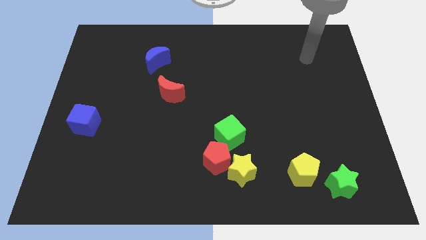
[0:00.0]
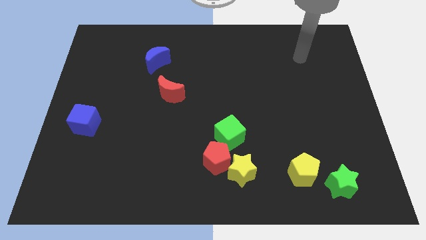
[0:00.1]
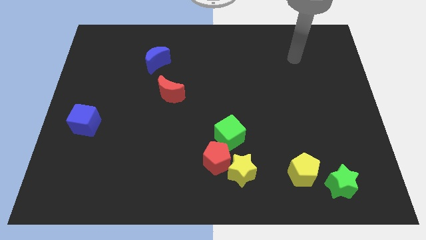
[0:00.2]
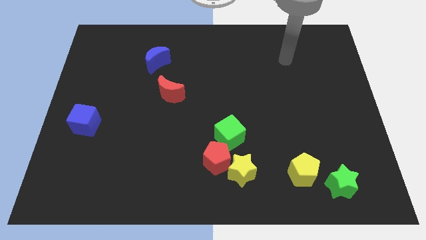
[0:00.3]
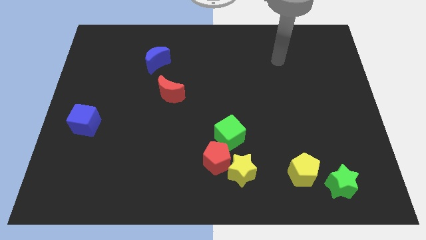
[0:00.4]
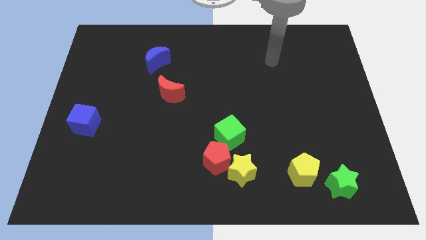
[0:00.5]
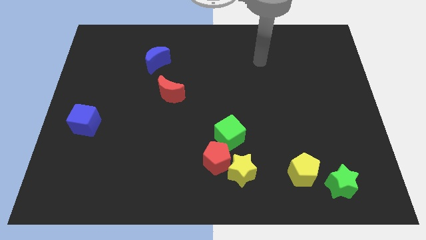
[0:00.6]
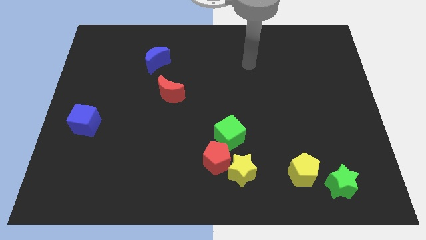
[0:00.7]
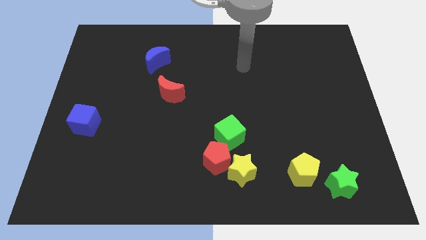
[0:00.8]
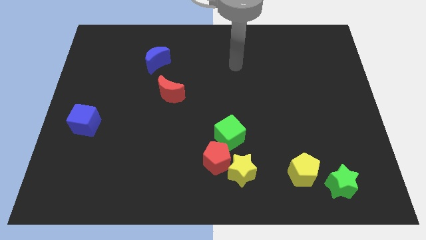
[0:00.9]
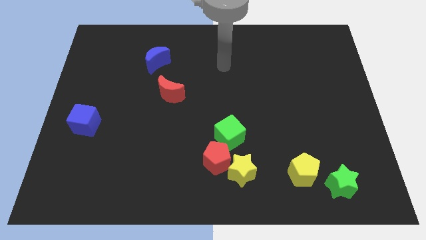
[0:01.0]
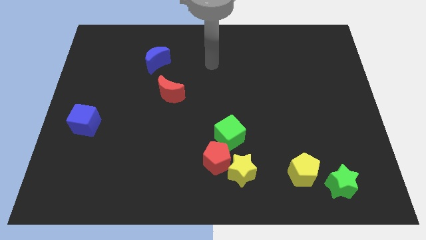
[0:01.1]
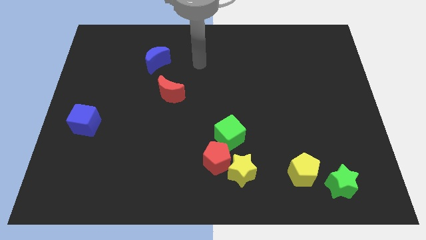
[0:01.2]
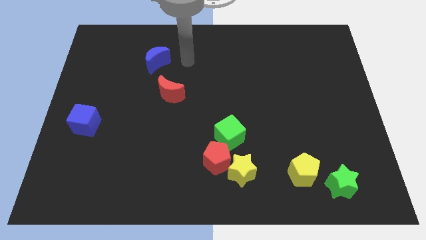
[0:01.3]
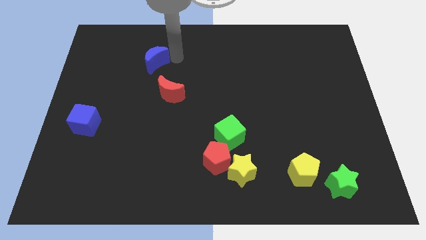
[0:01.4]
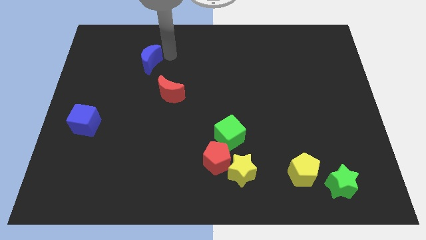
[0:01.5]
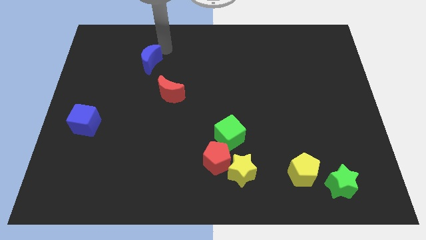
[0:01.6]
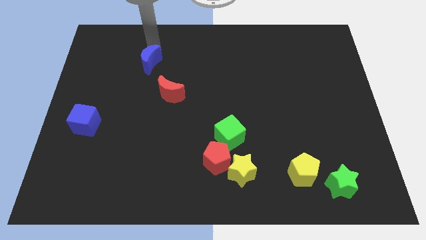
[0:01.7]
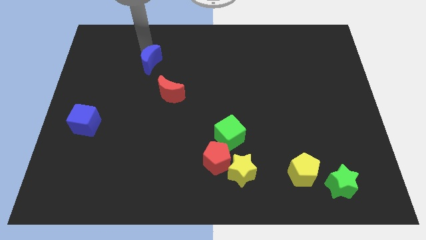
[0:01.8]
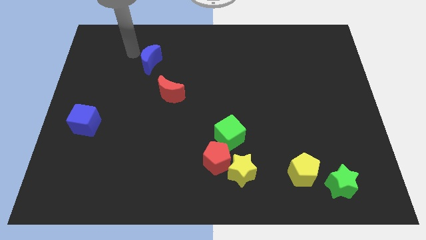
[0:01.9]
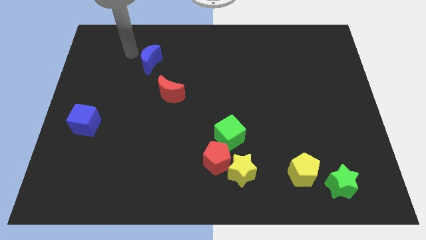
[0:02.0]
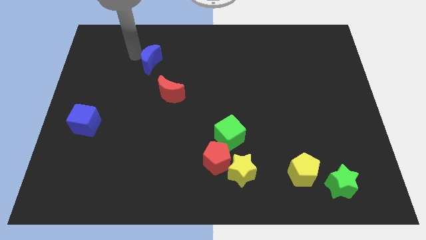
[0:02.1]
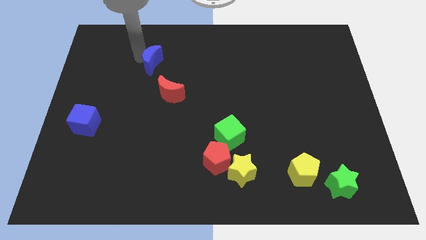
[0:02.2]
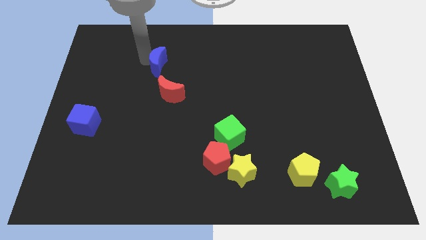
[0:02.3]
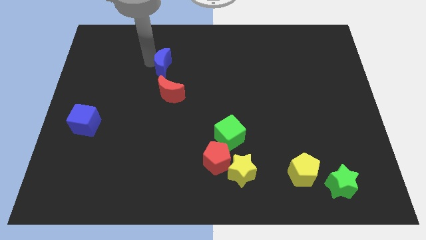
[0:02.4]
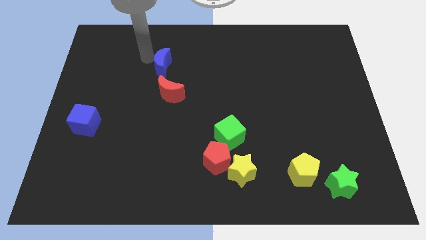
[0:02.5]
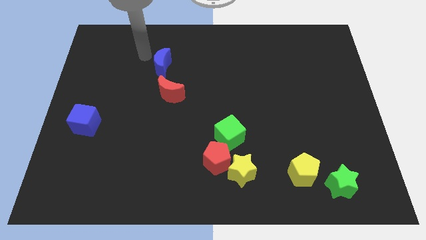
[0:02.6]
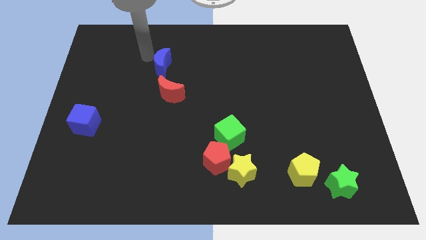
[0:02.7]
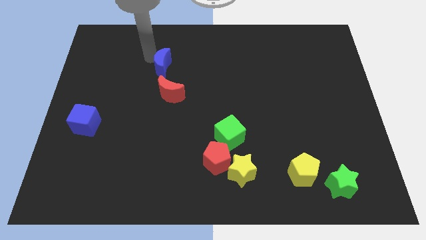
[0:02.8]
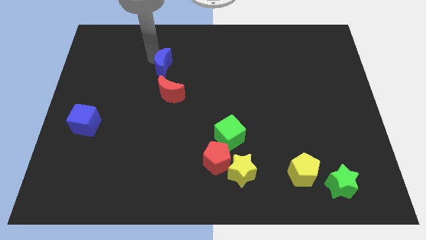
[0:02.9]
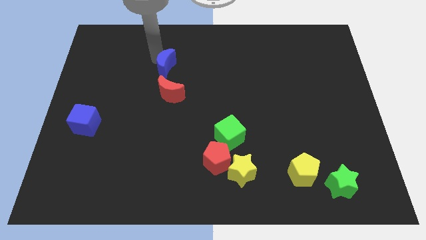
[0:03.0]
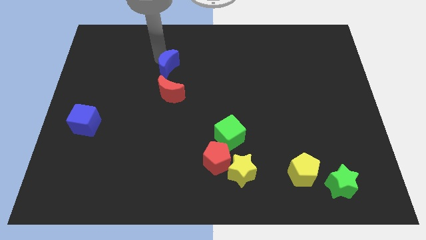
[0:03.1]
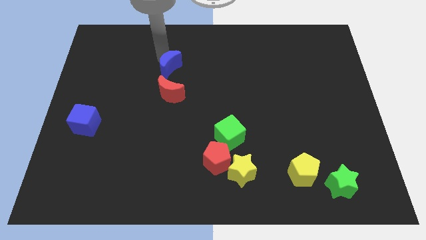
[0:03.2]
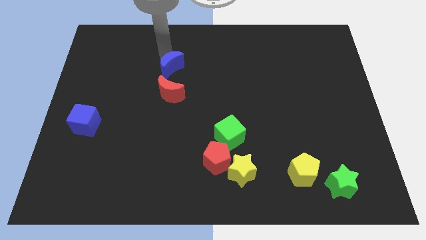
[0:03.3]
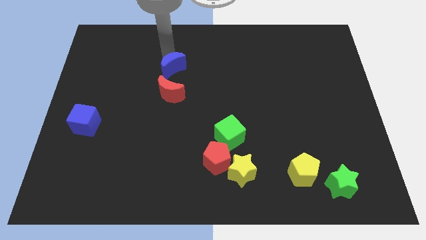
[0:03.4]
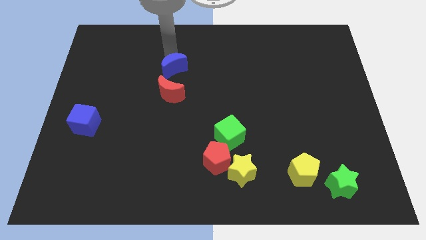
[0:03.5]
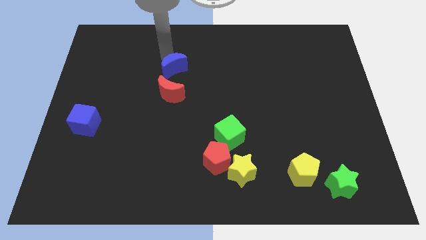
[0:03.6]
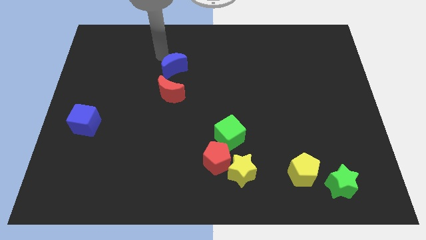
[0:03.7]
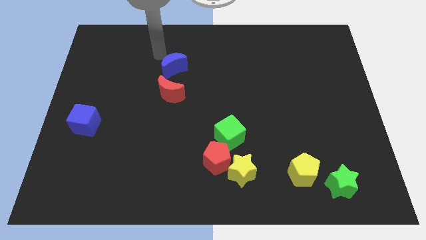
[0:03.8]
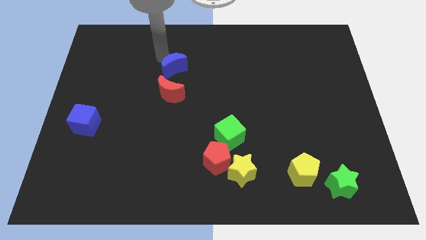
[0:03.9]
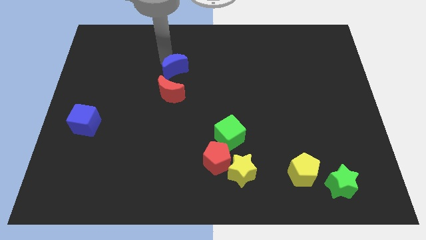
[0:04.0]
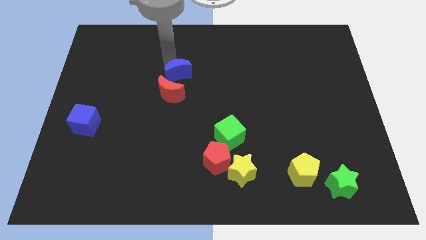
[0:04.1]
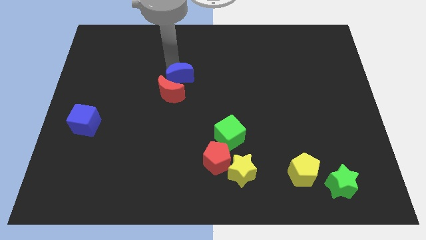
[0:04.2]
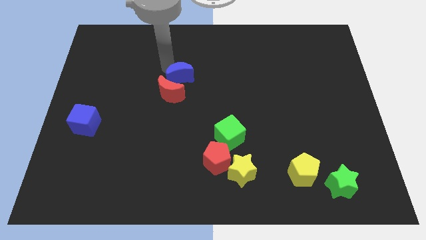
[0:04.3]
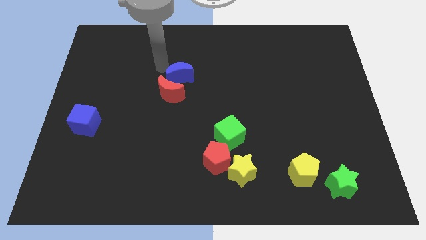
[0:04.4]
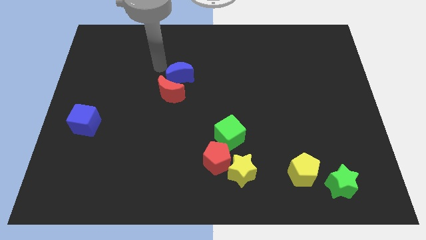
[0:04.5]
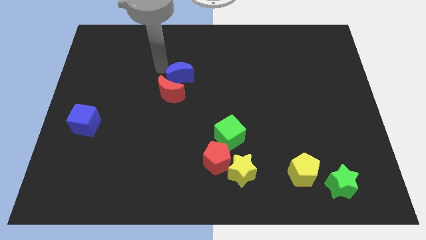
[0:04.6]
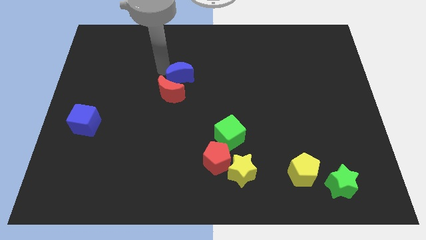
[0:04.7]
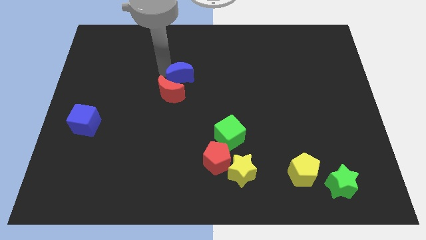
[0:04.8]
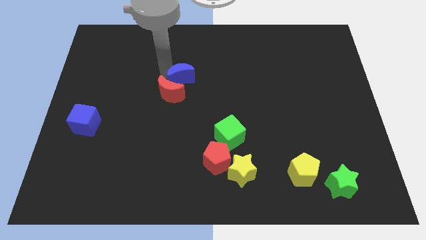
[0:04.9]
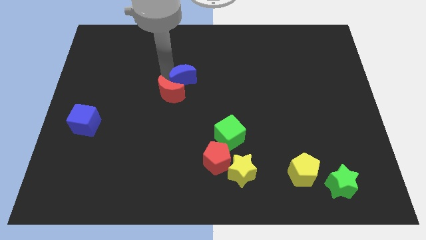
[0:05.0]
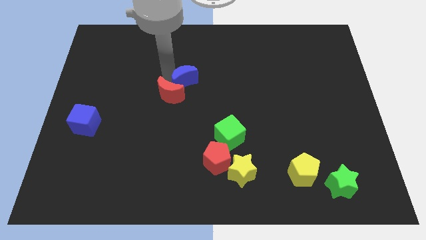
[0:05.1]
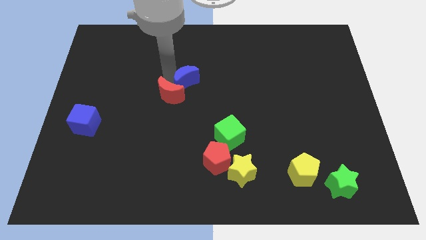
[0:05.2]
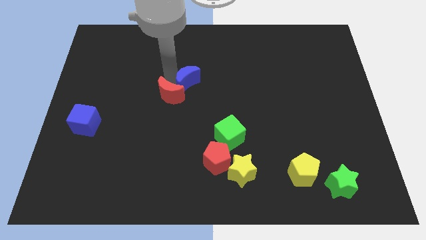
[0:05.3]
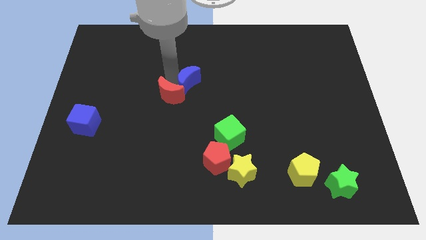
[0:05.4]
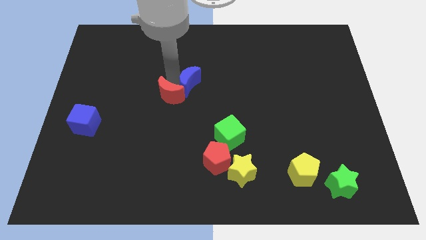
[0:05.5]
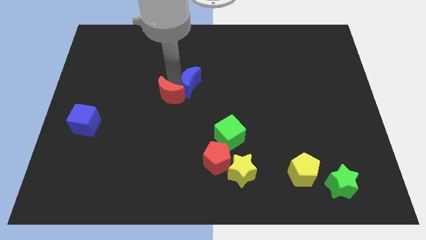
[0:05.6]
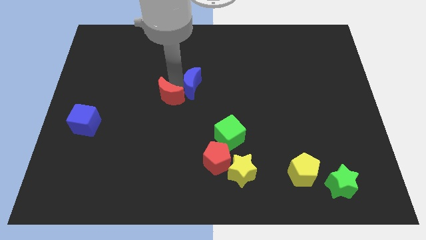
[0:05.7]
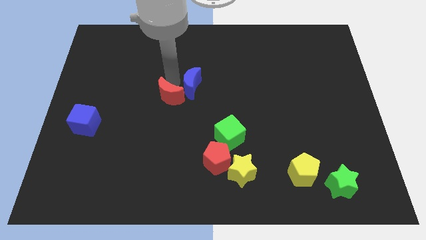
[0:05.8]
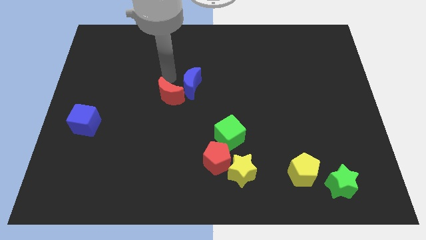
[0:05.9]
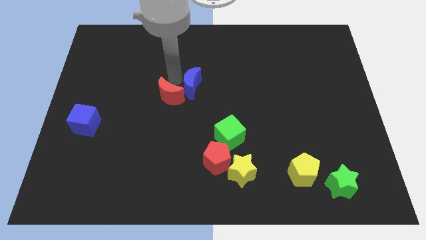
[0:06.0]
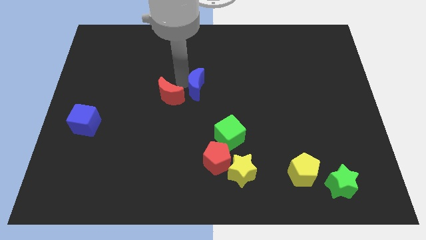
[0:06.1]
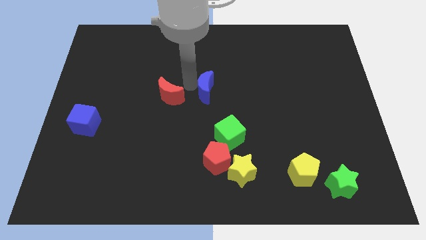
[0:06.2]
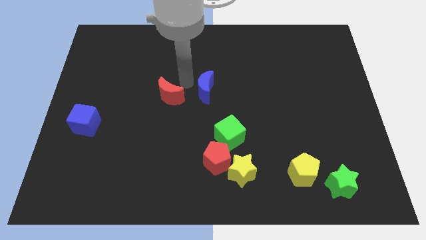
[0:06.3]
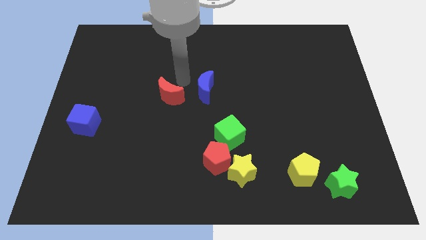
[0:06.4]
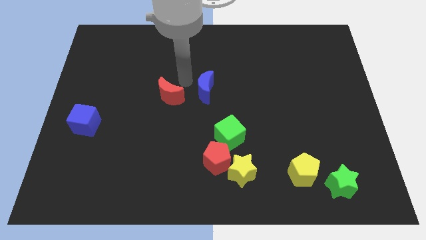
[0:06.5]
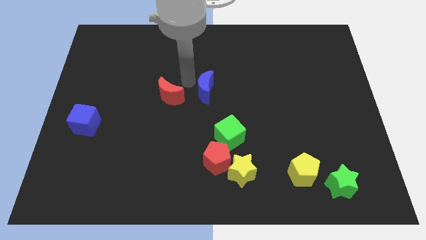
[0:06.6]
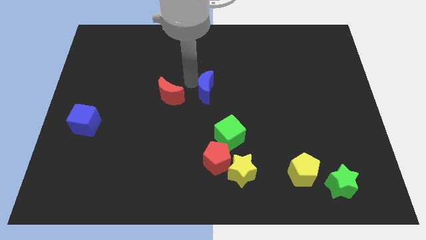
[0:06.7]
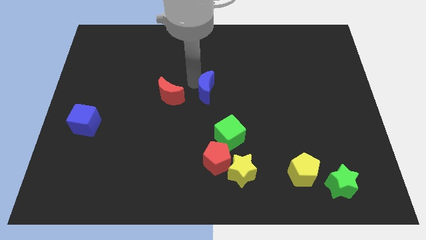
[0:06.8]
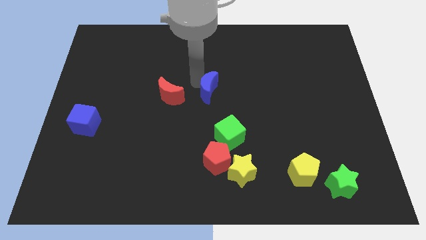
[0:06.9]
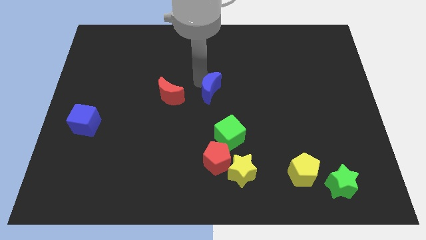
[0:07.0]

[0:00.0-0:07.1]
push the blue moon above the green cube

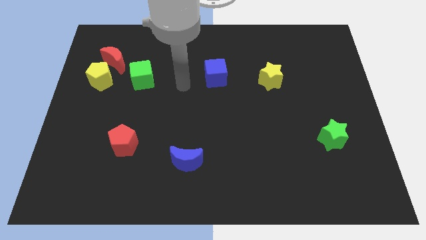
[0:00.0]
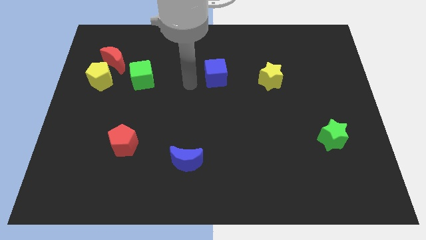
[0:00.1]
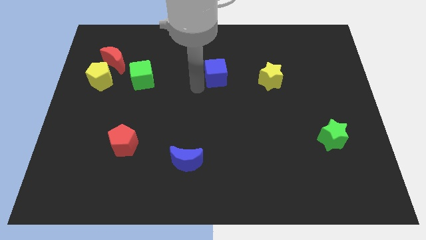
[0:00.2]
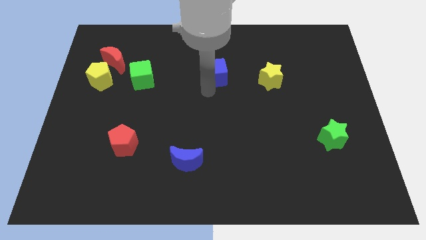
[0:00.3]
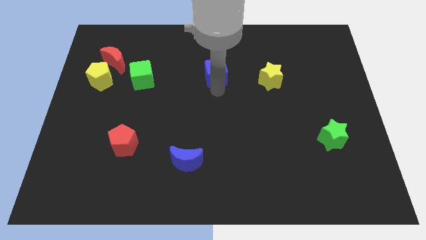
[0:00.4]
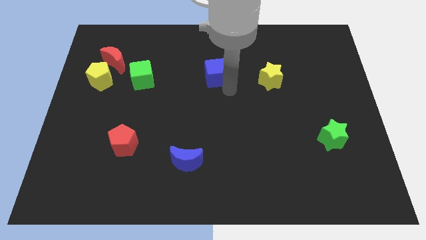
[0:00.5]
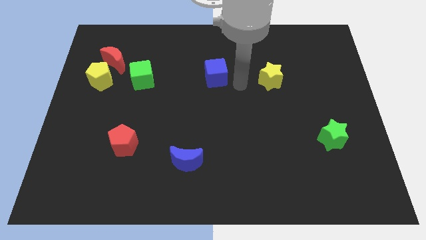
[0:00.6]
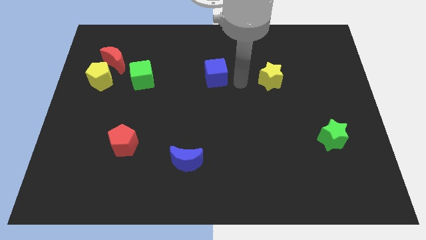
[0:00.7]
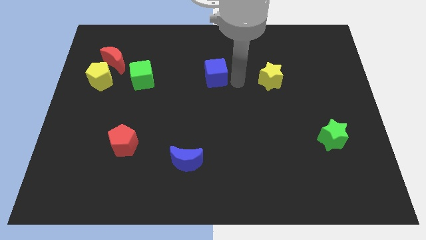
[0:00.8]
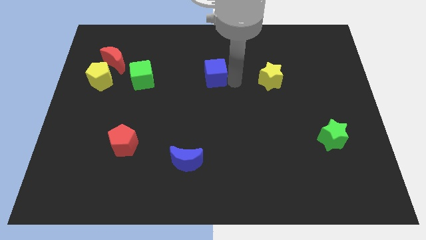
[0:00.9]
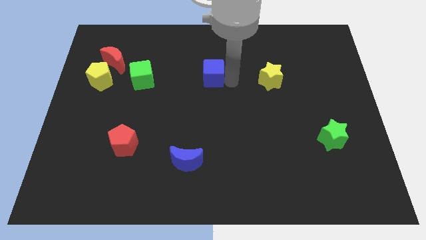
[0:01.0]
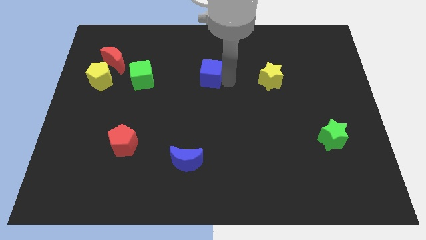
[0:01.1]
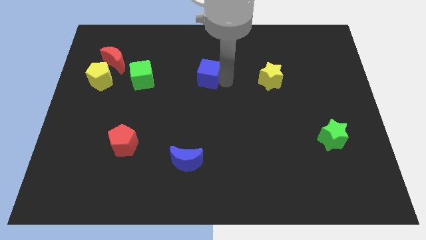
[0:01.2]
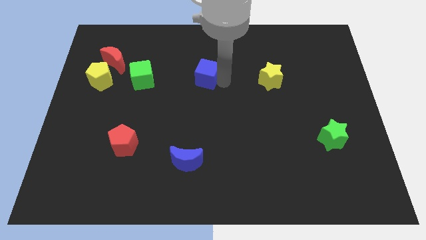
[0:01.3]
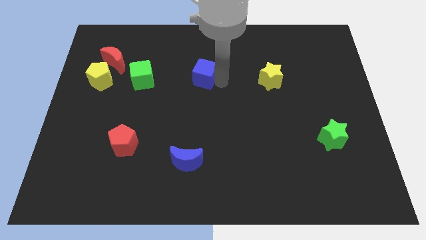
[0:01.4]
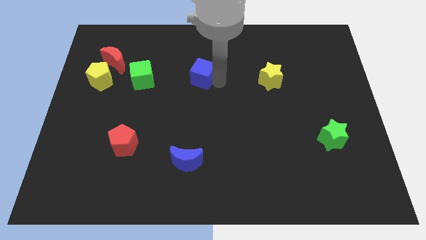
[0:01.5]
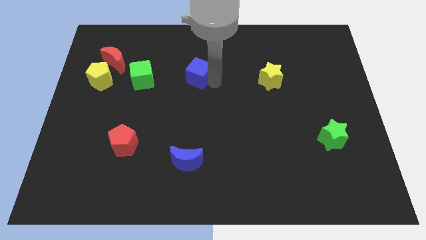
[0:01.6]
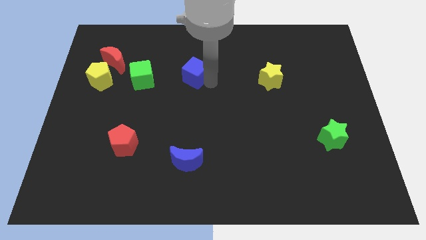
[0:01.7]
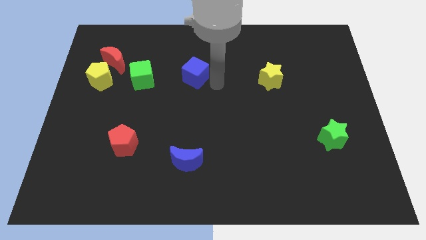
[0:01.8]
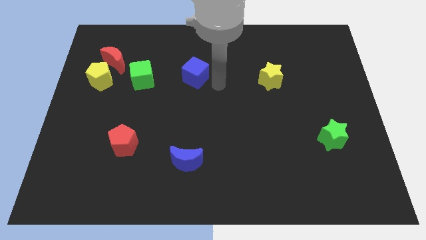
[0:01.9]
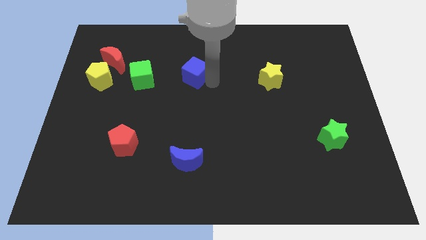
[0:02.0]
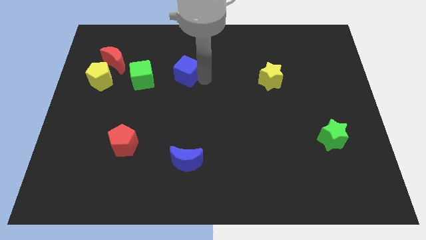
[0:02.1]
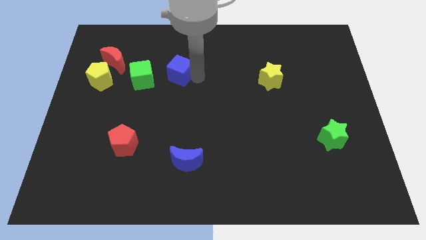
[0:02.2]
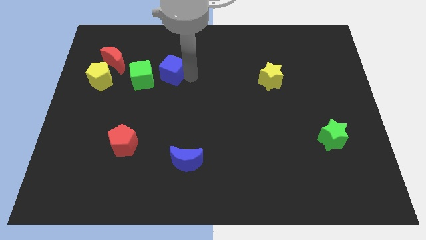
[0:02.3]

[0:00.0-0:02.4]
move the blue cube to the top right side of the green cube
